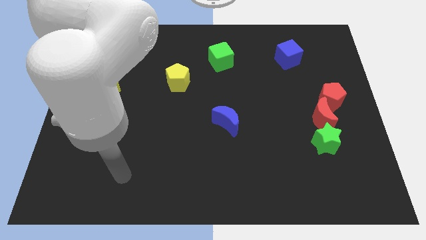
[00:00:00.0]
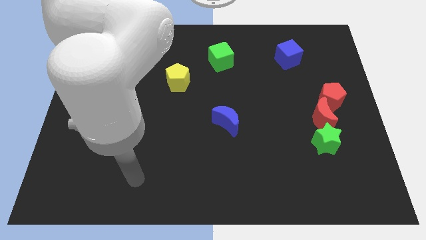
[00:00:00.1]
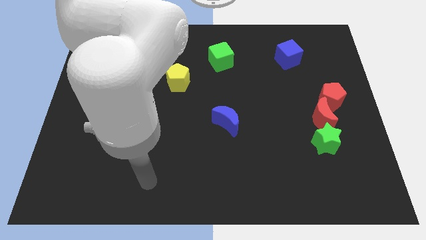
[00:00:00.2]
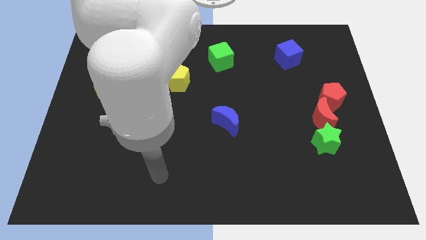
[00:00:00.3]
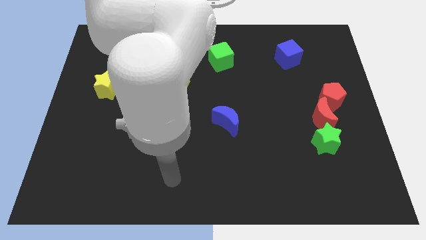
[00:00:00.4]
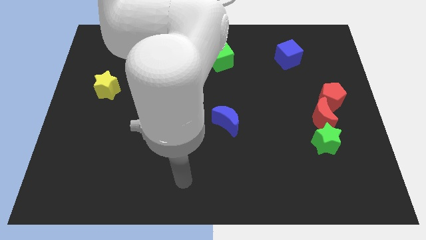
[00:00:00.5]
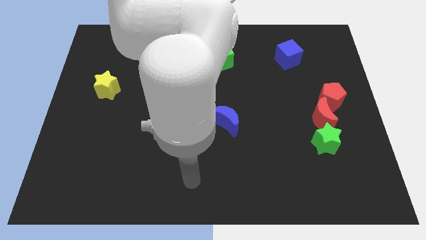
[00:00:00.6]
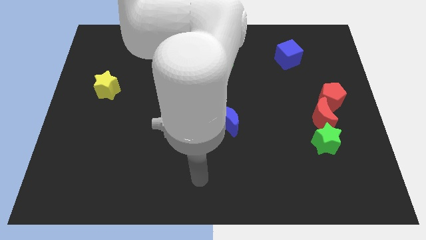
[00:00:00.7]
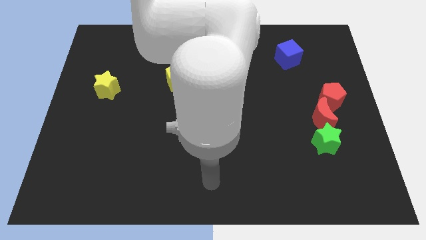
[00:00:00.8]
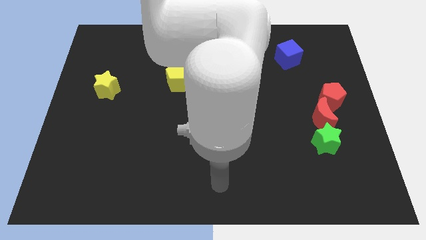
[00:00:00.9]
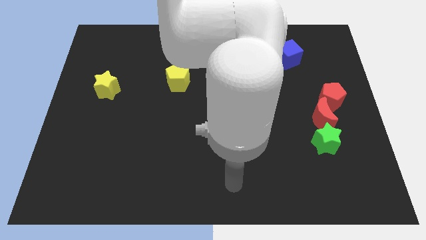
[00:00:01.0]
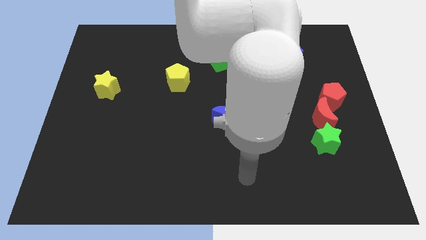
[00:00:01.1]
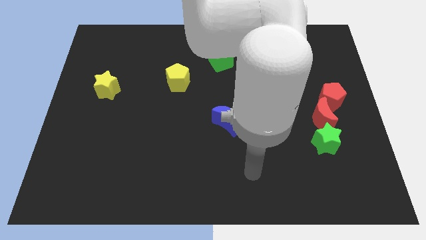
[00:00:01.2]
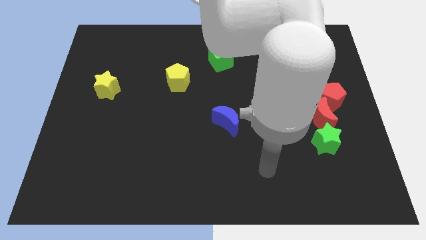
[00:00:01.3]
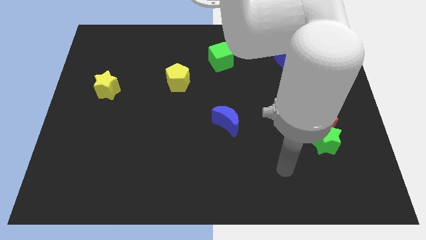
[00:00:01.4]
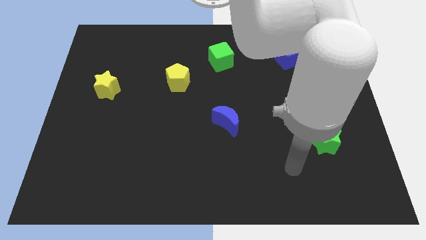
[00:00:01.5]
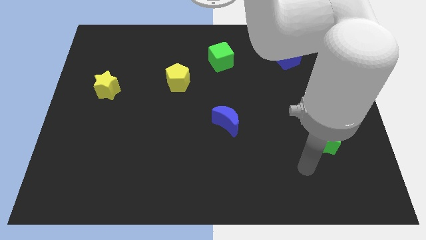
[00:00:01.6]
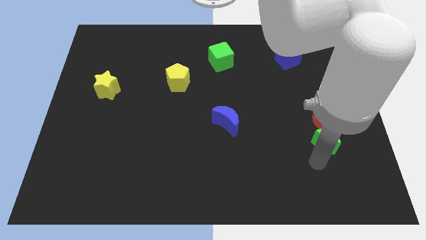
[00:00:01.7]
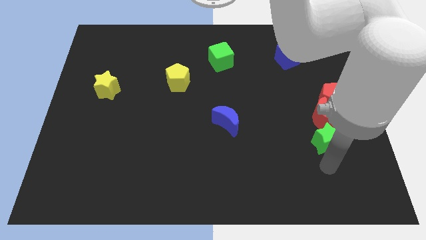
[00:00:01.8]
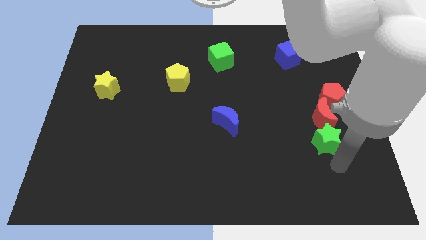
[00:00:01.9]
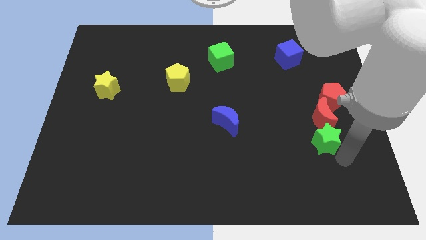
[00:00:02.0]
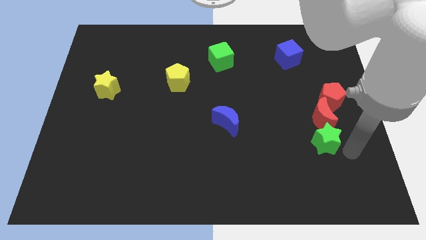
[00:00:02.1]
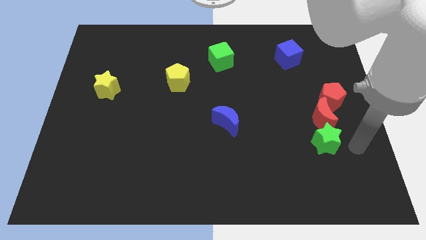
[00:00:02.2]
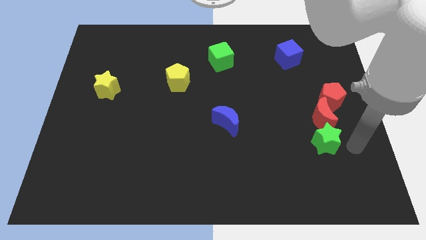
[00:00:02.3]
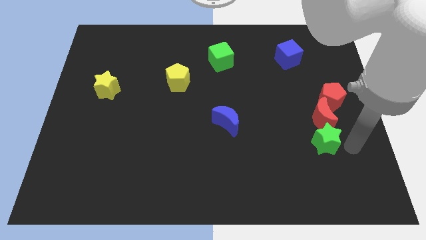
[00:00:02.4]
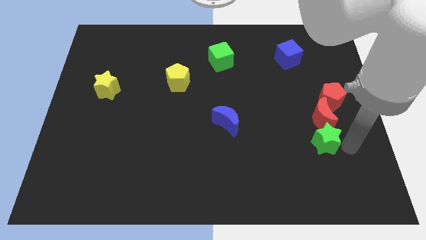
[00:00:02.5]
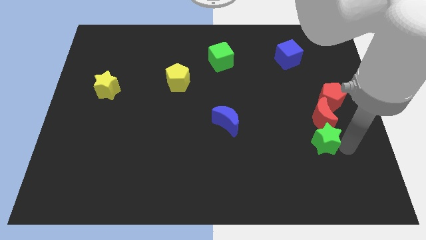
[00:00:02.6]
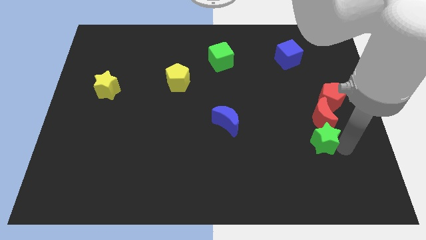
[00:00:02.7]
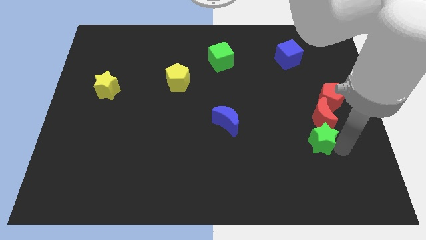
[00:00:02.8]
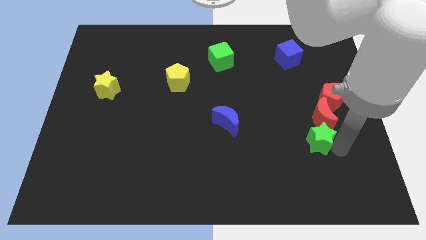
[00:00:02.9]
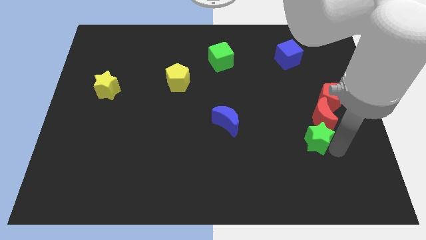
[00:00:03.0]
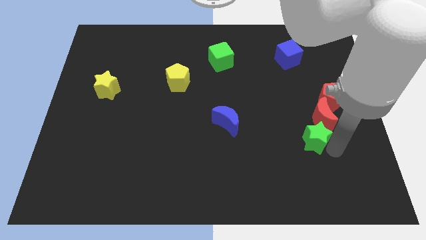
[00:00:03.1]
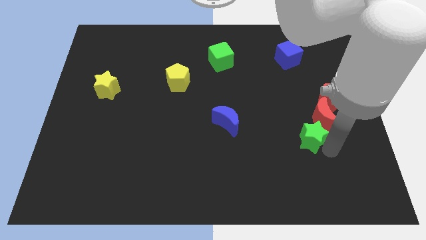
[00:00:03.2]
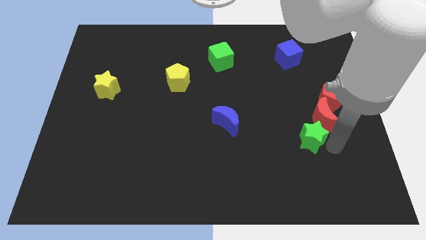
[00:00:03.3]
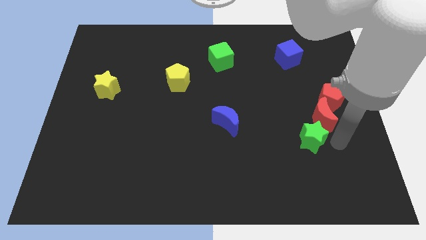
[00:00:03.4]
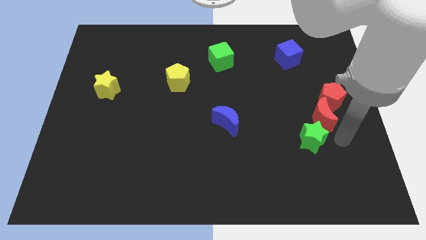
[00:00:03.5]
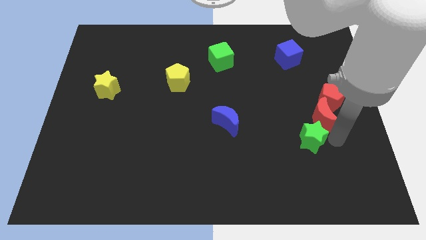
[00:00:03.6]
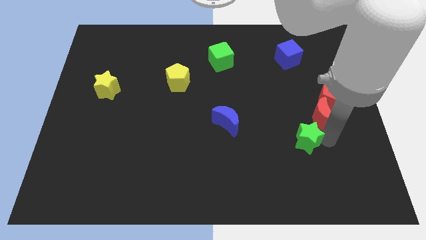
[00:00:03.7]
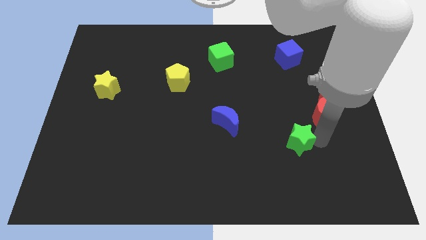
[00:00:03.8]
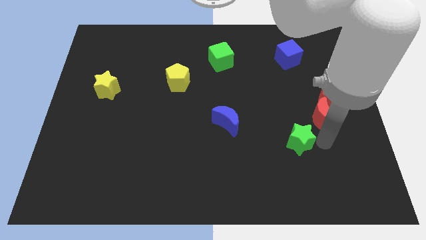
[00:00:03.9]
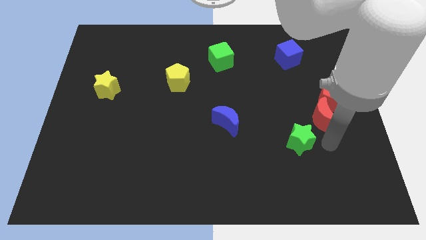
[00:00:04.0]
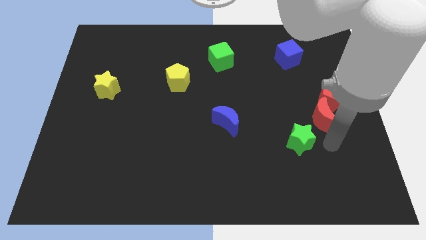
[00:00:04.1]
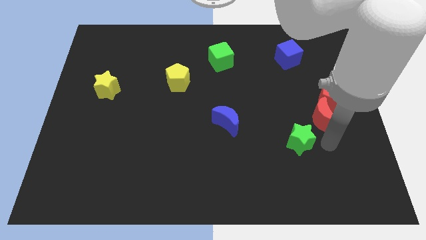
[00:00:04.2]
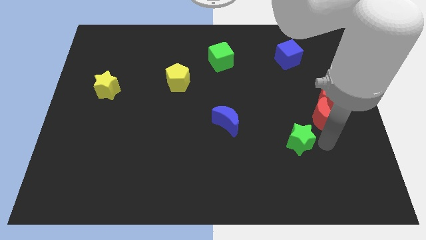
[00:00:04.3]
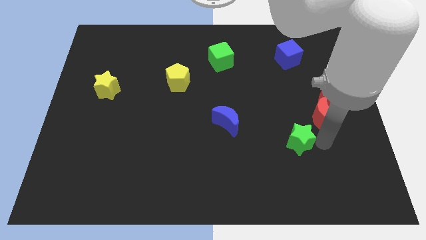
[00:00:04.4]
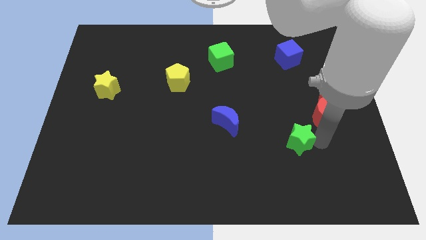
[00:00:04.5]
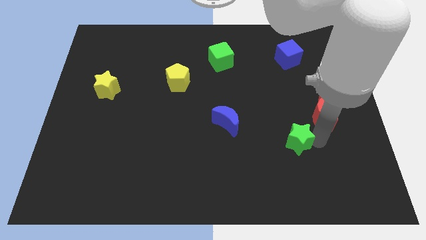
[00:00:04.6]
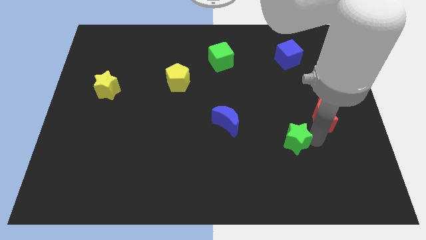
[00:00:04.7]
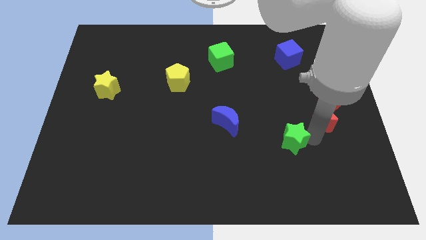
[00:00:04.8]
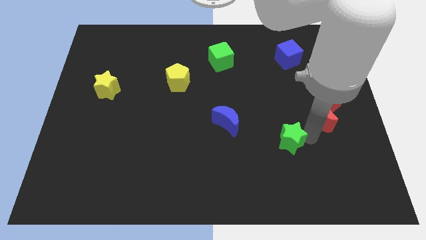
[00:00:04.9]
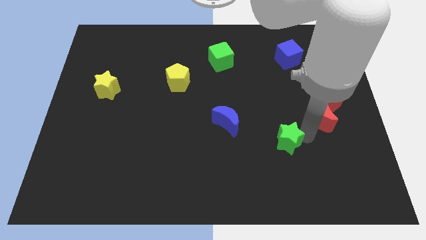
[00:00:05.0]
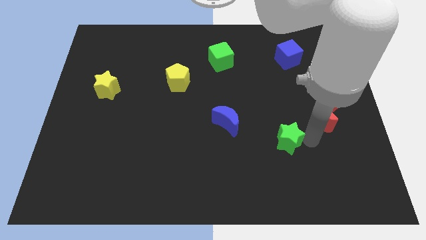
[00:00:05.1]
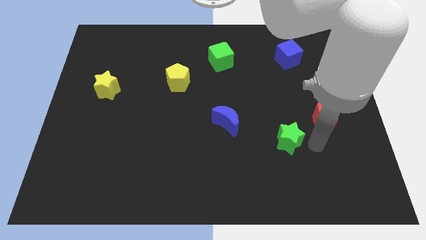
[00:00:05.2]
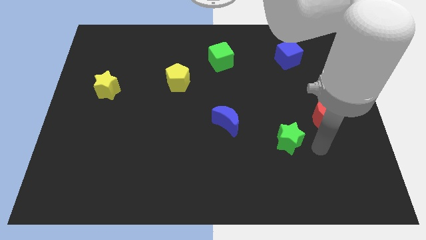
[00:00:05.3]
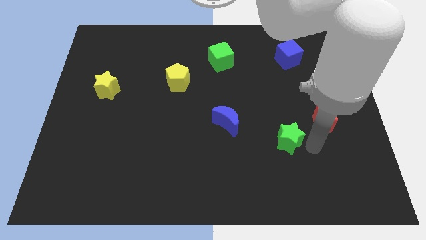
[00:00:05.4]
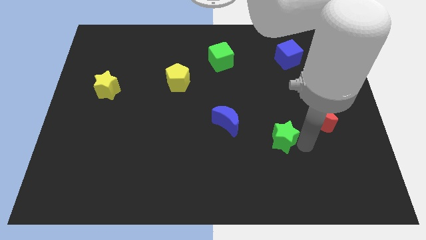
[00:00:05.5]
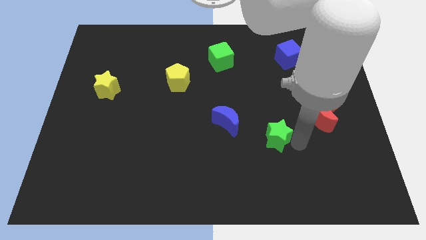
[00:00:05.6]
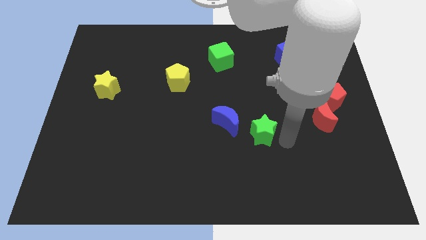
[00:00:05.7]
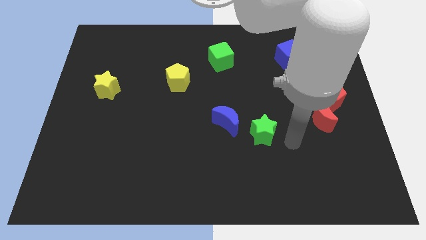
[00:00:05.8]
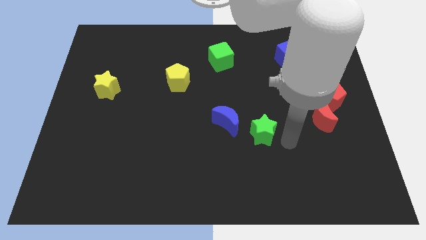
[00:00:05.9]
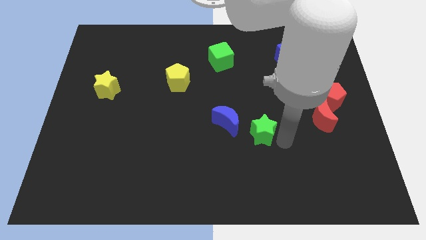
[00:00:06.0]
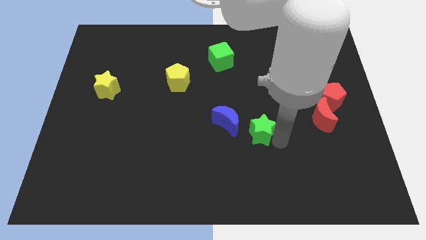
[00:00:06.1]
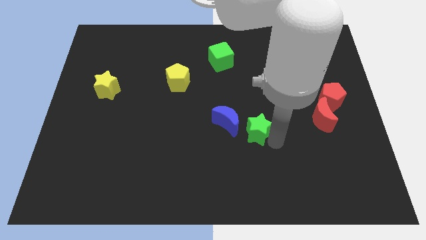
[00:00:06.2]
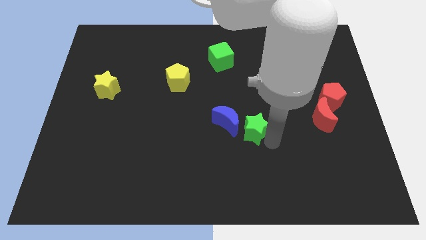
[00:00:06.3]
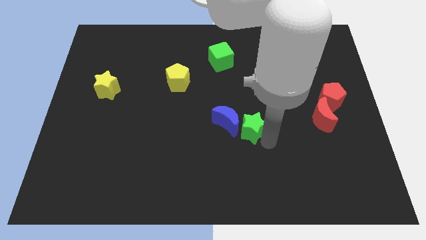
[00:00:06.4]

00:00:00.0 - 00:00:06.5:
push the green star next to the blue moon

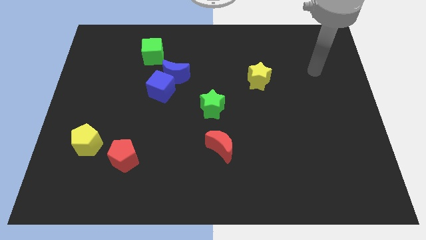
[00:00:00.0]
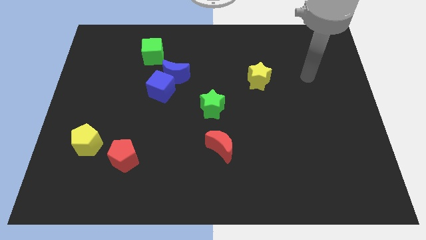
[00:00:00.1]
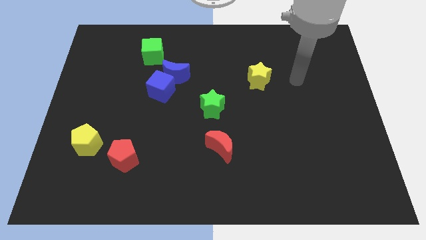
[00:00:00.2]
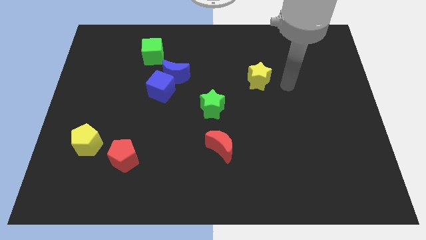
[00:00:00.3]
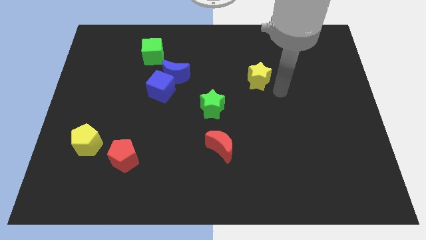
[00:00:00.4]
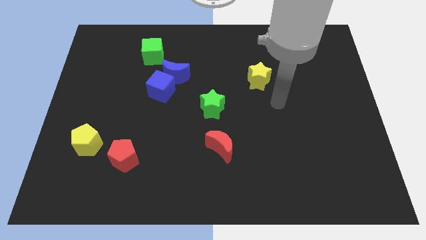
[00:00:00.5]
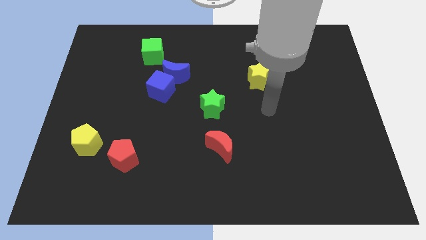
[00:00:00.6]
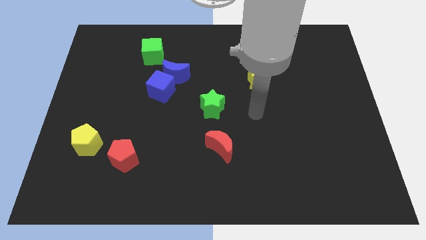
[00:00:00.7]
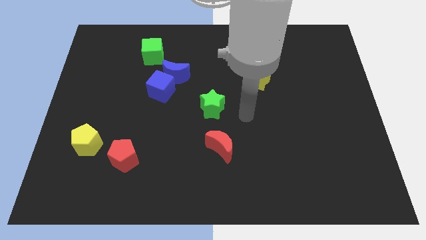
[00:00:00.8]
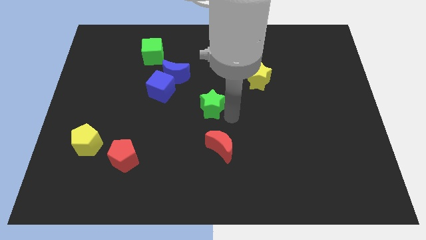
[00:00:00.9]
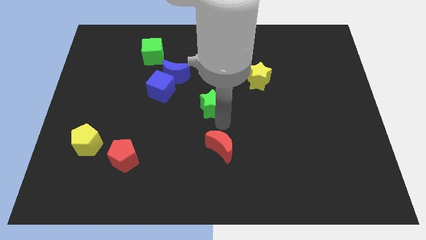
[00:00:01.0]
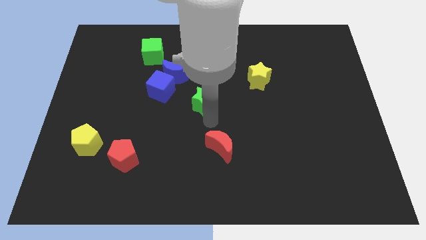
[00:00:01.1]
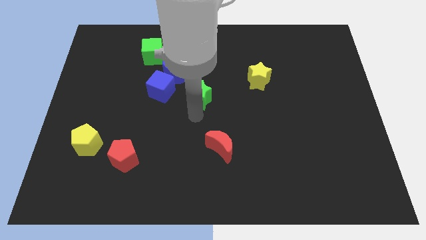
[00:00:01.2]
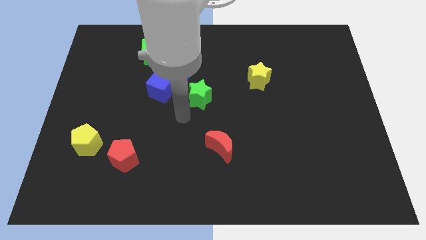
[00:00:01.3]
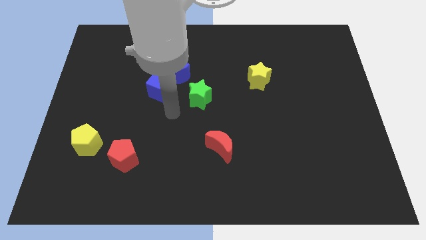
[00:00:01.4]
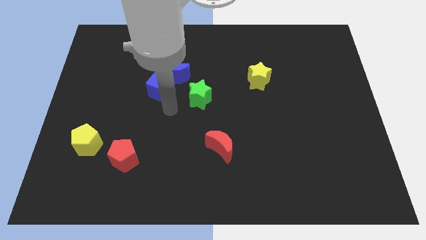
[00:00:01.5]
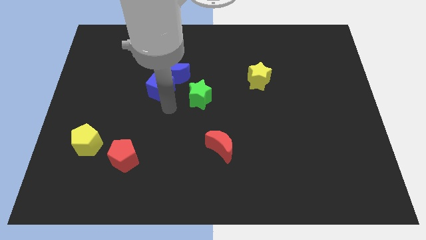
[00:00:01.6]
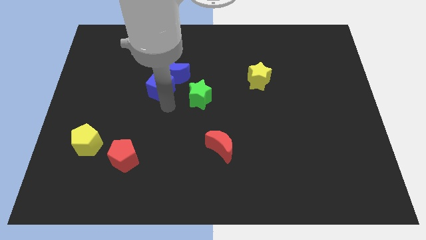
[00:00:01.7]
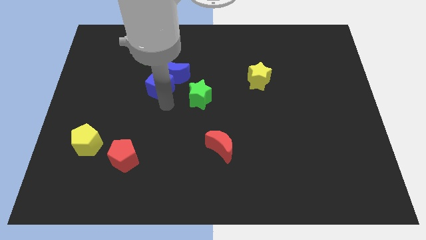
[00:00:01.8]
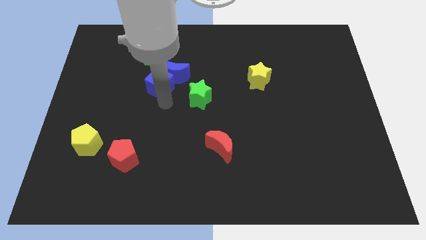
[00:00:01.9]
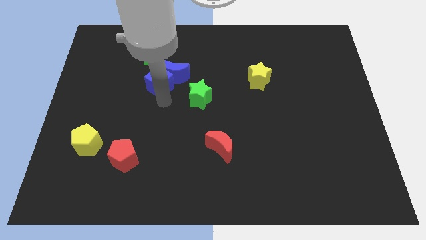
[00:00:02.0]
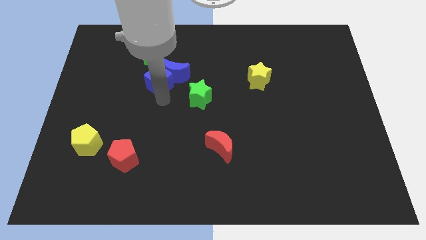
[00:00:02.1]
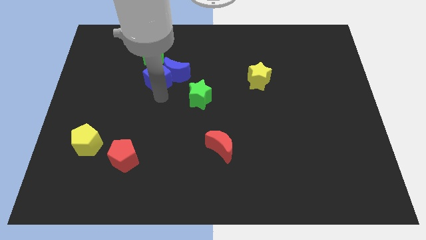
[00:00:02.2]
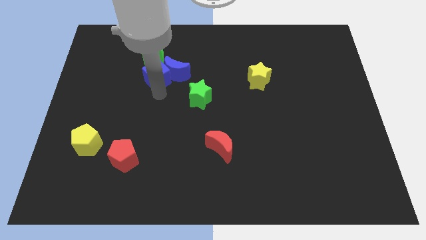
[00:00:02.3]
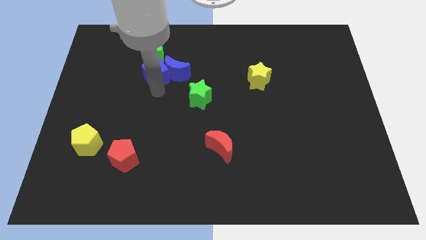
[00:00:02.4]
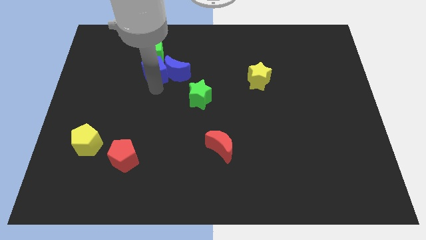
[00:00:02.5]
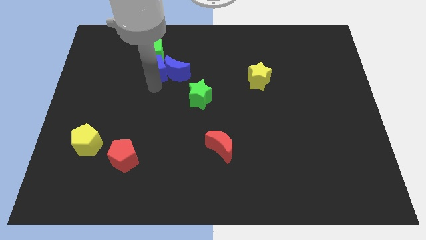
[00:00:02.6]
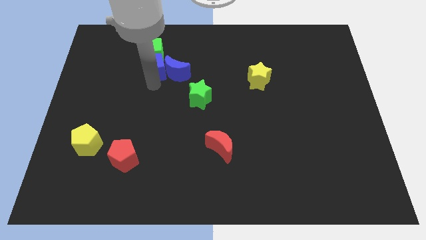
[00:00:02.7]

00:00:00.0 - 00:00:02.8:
slide the blue cube to the green cube
